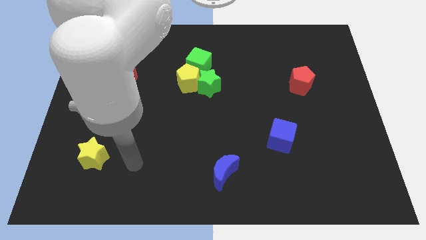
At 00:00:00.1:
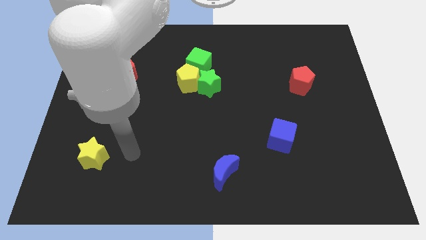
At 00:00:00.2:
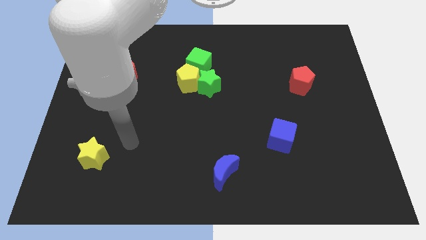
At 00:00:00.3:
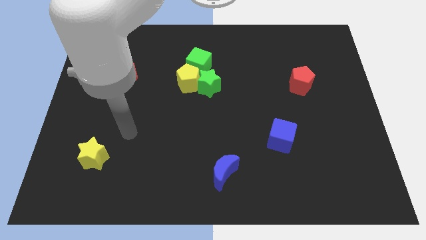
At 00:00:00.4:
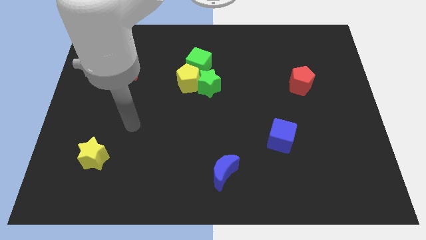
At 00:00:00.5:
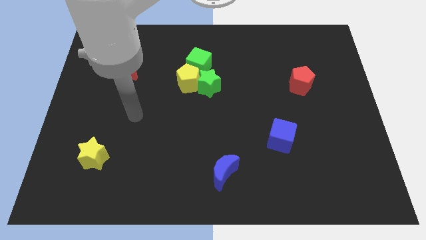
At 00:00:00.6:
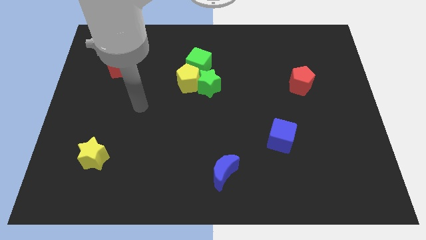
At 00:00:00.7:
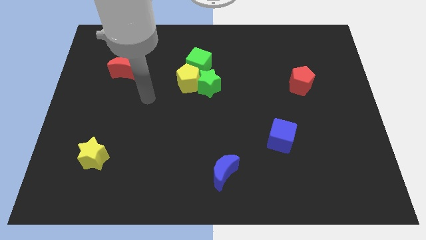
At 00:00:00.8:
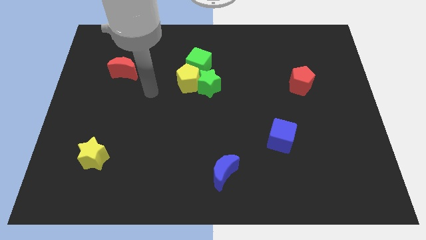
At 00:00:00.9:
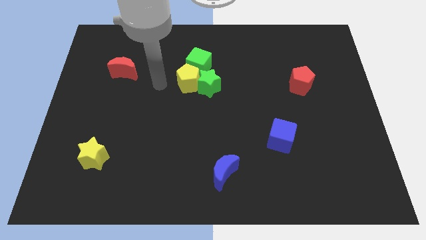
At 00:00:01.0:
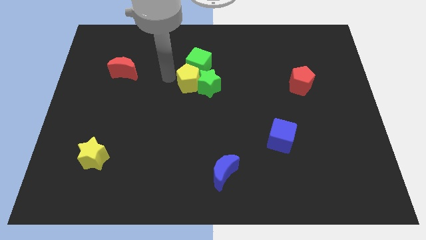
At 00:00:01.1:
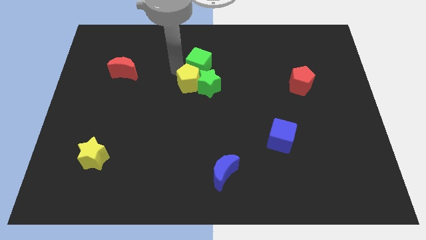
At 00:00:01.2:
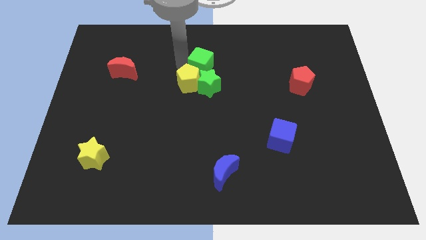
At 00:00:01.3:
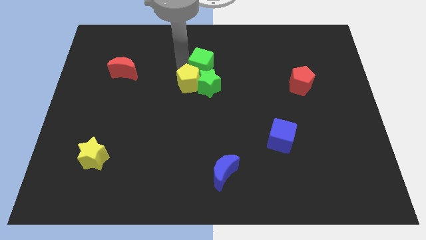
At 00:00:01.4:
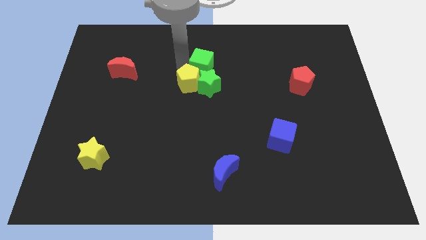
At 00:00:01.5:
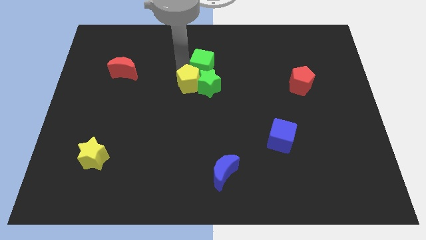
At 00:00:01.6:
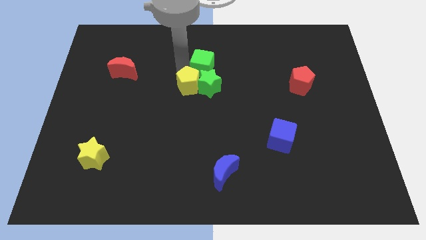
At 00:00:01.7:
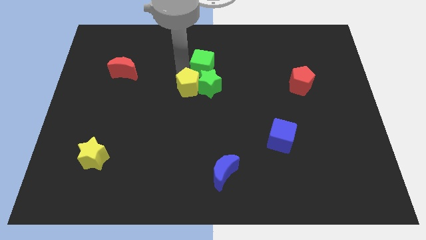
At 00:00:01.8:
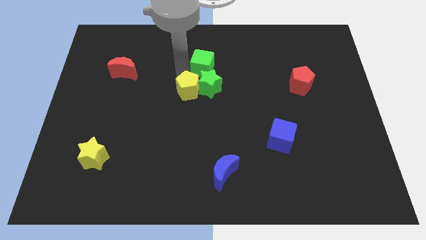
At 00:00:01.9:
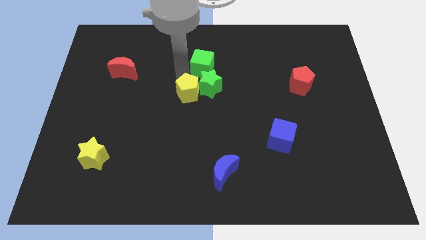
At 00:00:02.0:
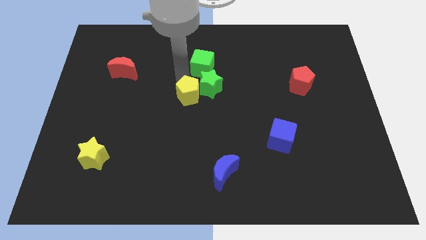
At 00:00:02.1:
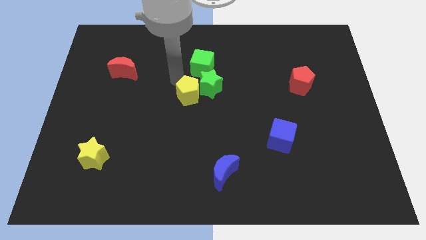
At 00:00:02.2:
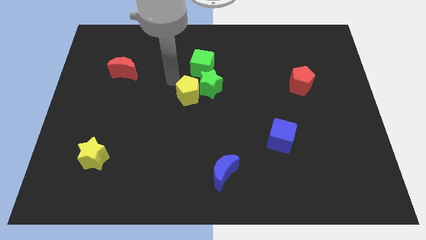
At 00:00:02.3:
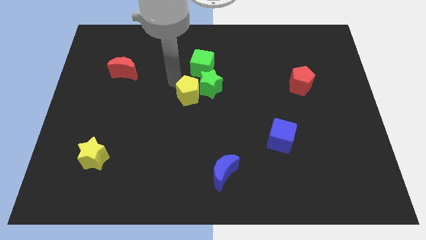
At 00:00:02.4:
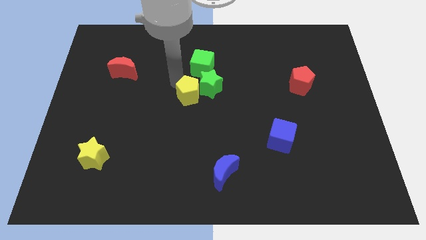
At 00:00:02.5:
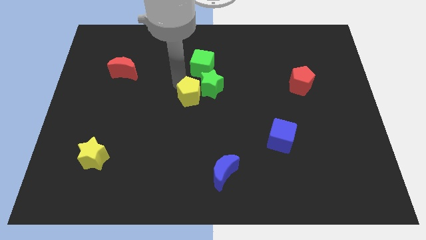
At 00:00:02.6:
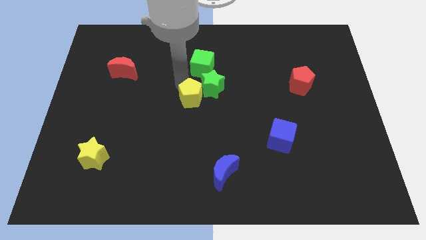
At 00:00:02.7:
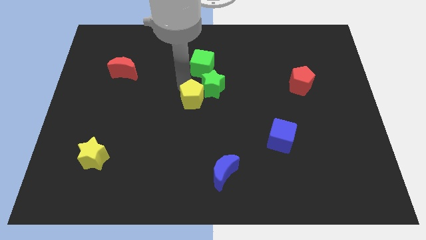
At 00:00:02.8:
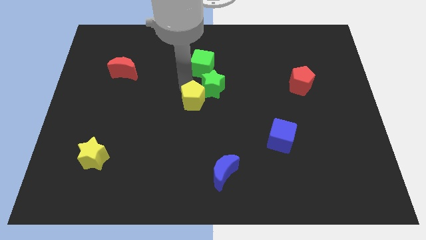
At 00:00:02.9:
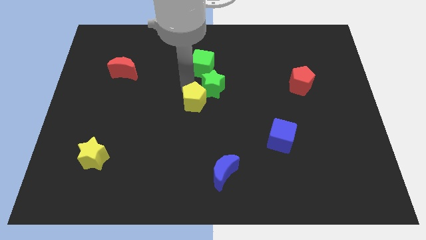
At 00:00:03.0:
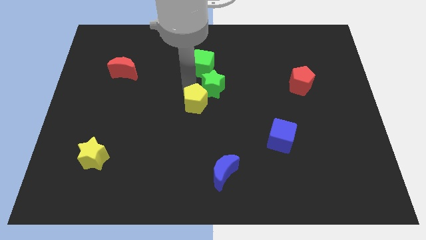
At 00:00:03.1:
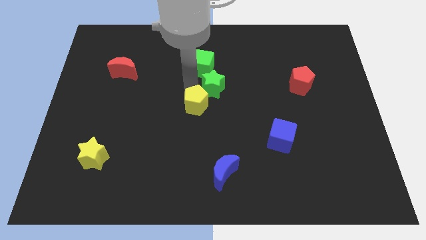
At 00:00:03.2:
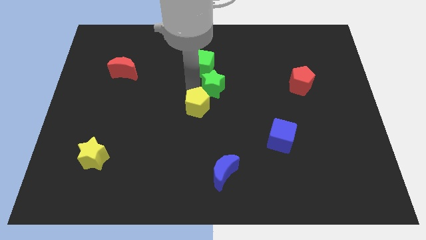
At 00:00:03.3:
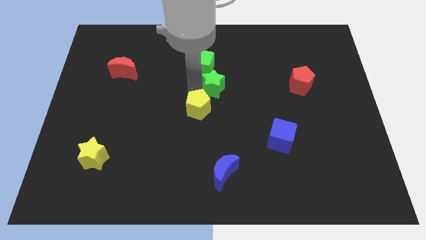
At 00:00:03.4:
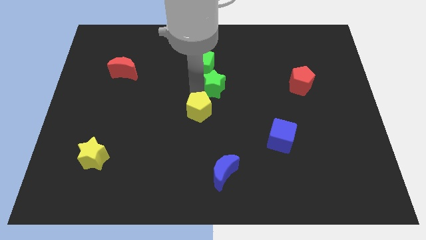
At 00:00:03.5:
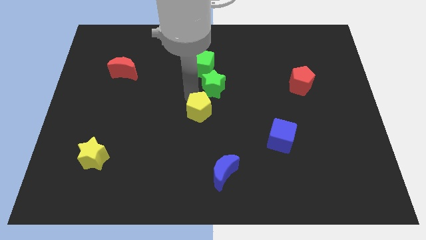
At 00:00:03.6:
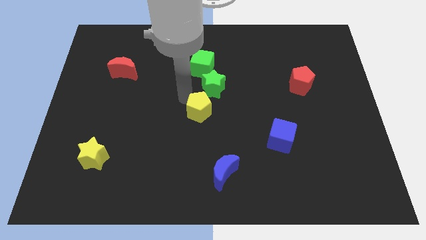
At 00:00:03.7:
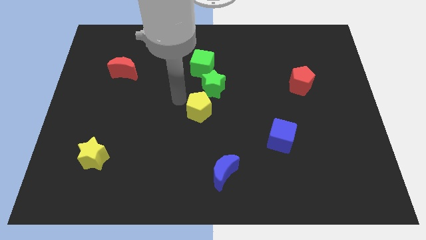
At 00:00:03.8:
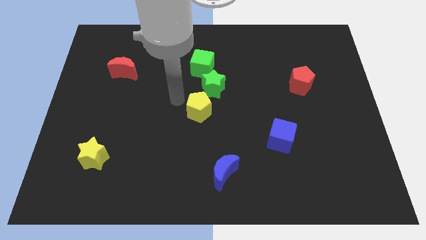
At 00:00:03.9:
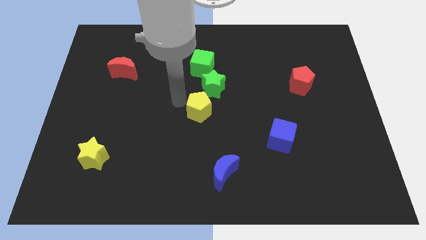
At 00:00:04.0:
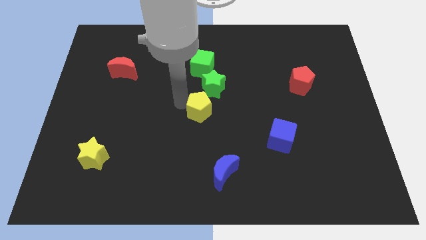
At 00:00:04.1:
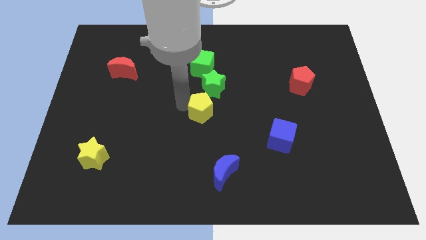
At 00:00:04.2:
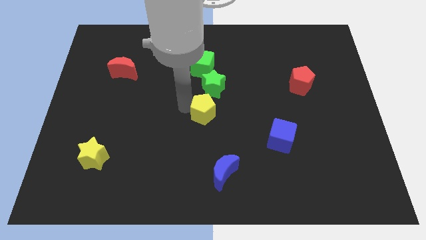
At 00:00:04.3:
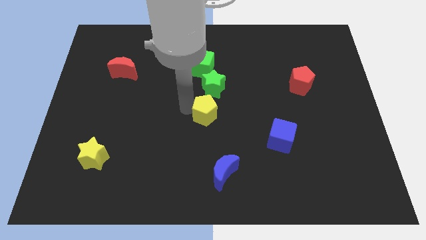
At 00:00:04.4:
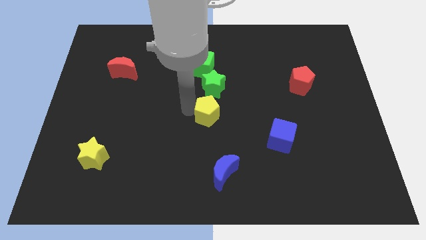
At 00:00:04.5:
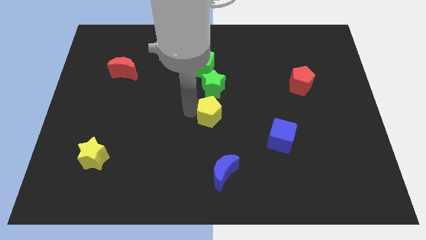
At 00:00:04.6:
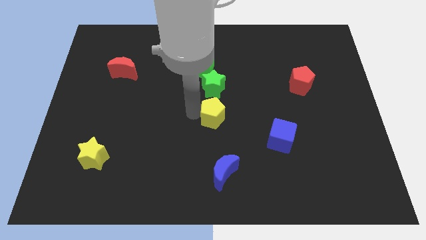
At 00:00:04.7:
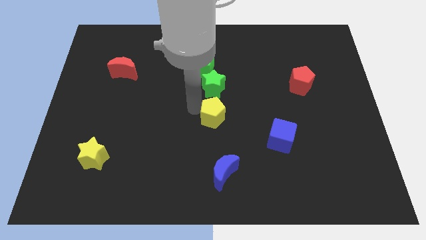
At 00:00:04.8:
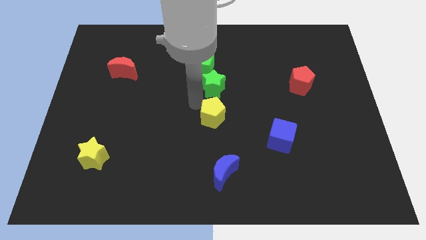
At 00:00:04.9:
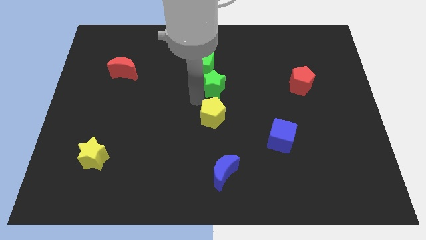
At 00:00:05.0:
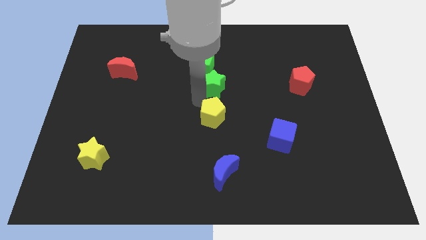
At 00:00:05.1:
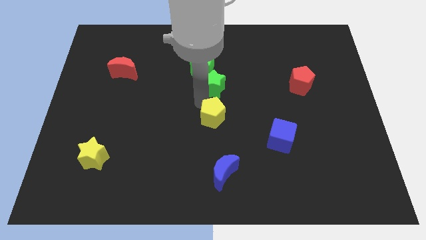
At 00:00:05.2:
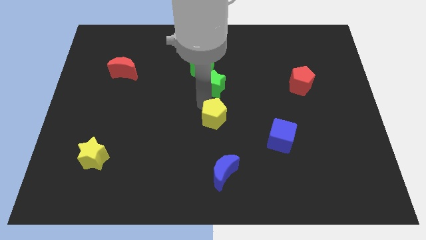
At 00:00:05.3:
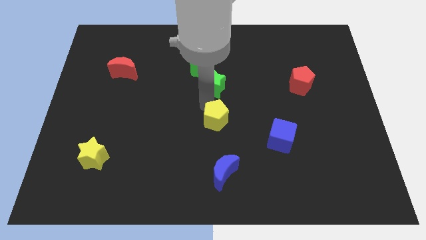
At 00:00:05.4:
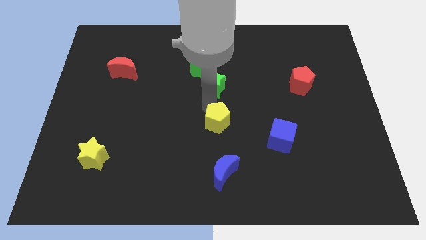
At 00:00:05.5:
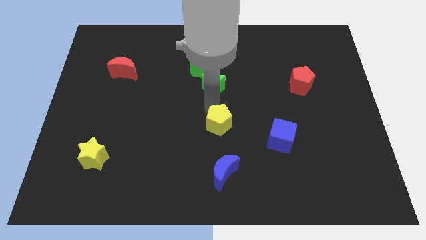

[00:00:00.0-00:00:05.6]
push the yellow pentagon to the left side of the blue cube
